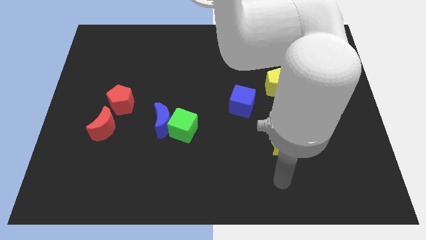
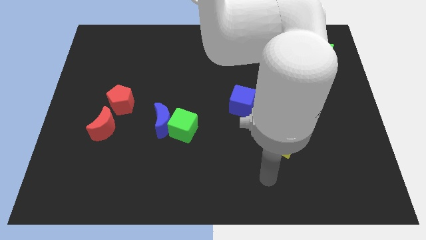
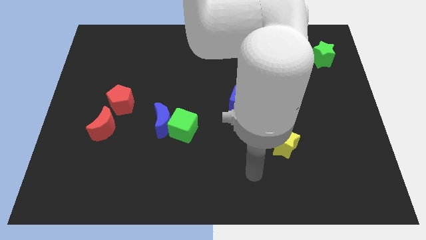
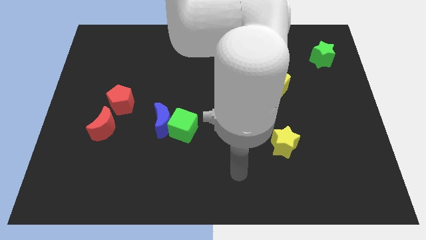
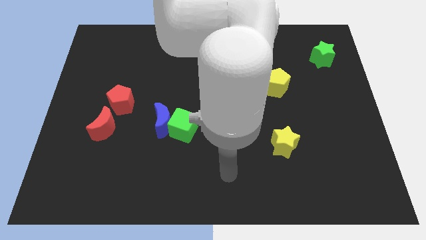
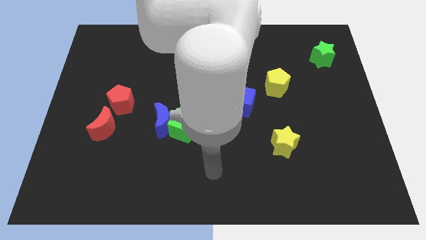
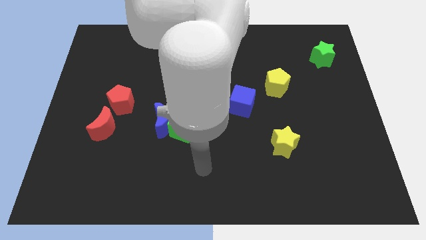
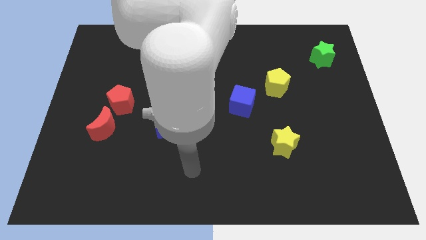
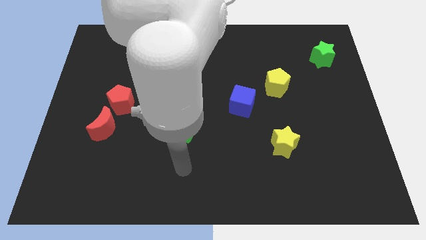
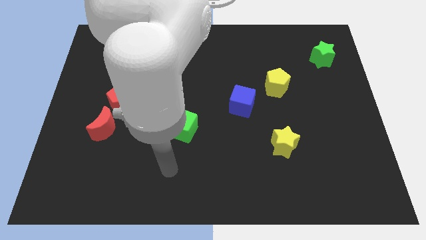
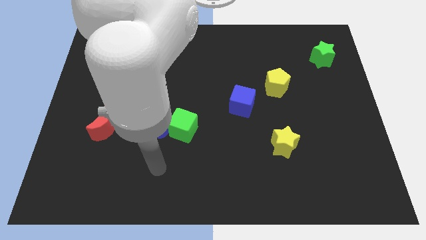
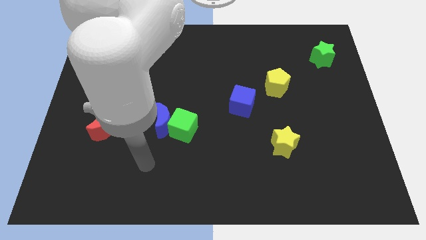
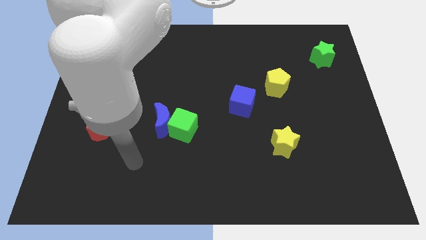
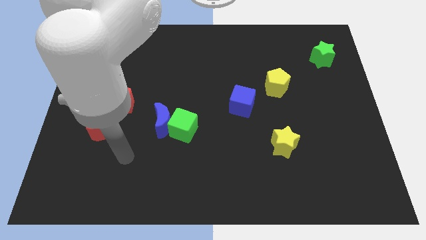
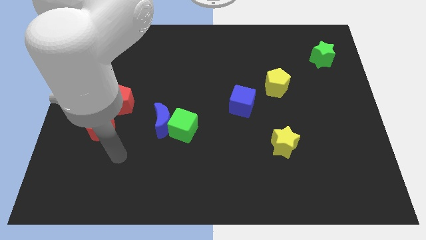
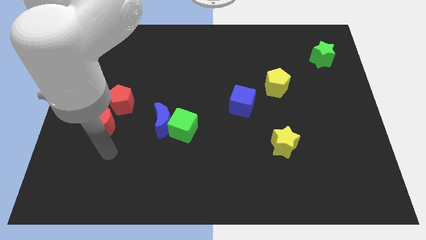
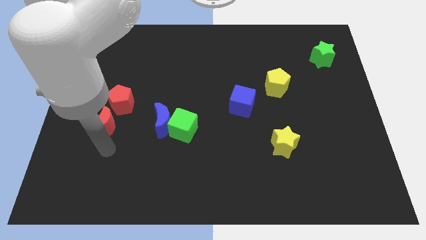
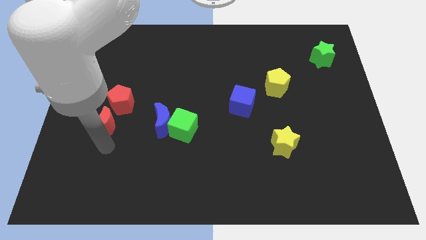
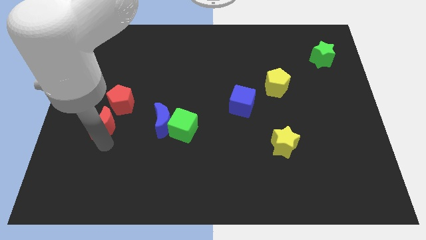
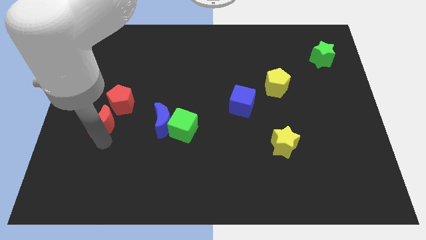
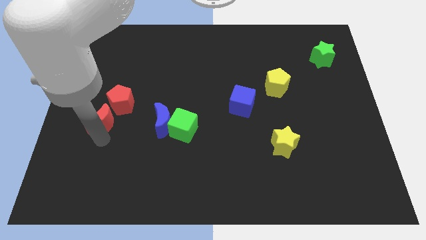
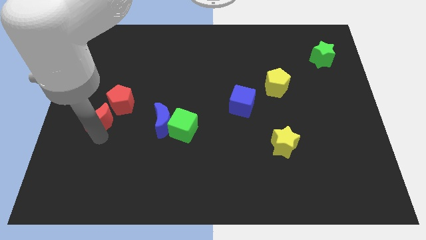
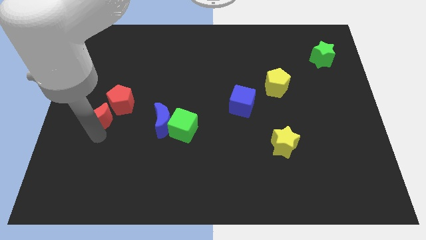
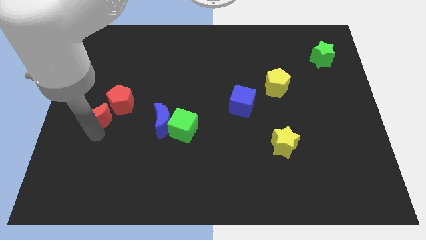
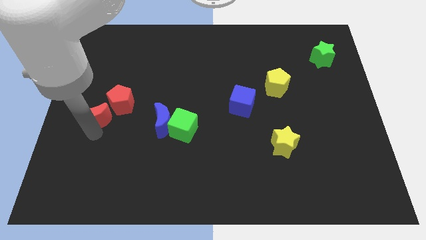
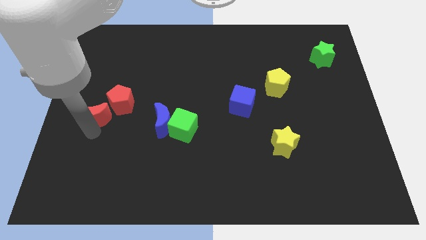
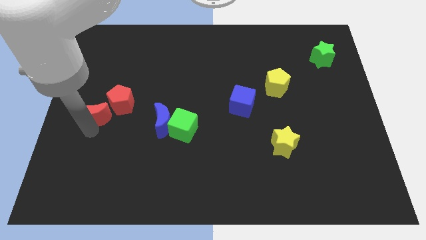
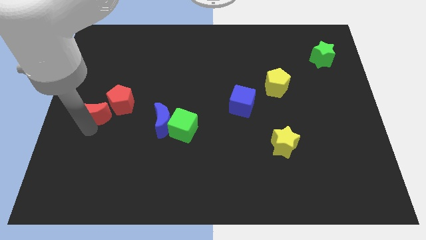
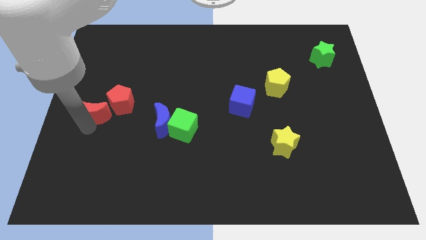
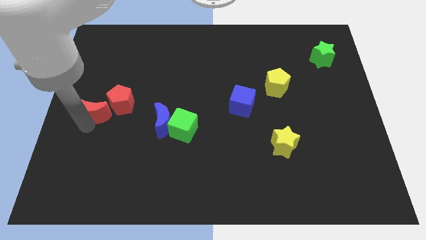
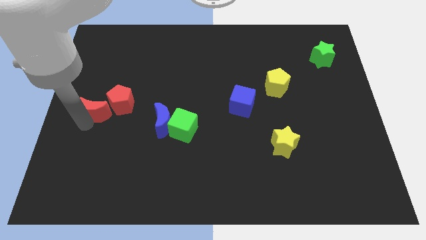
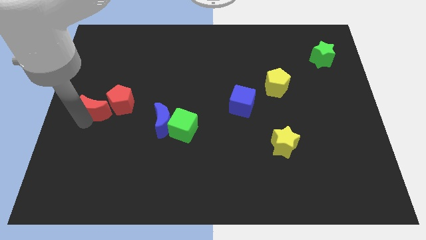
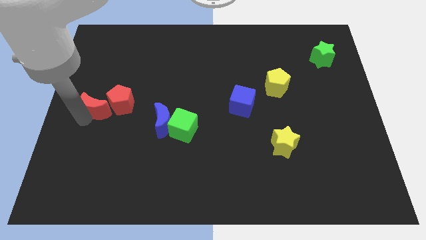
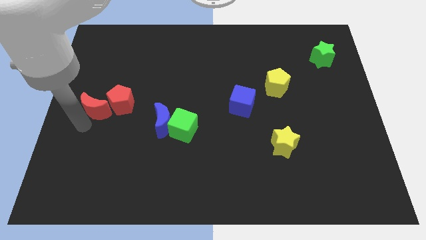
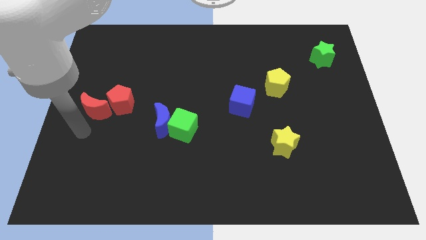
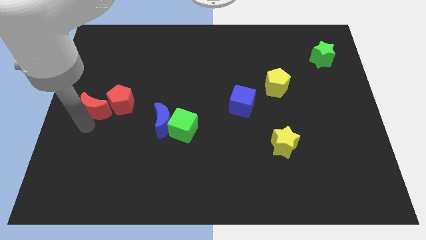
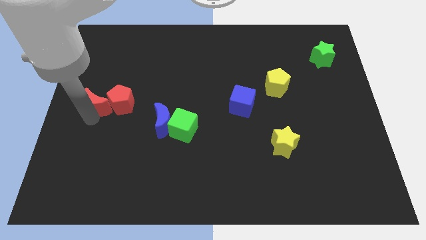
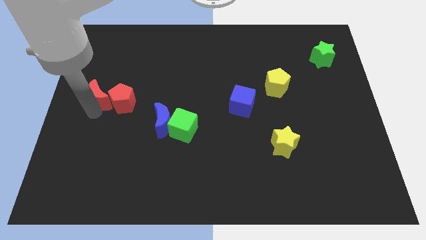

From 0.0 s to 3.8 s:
slightly push the red moon upwards

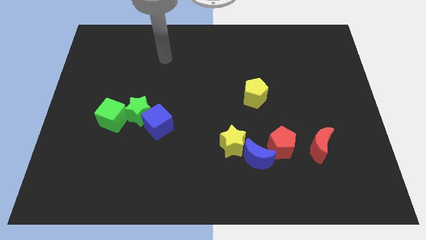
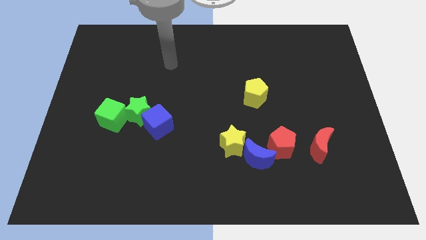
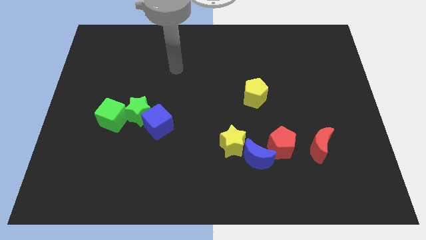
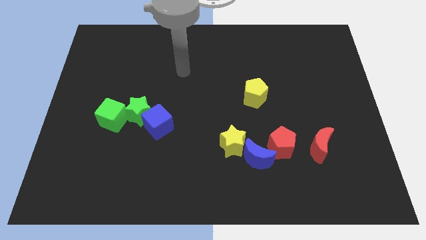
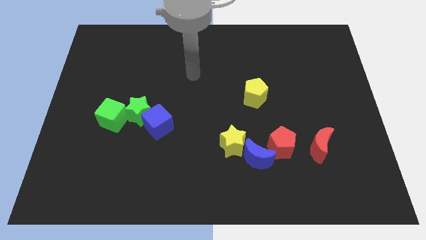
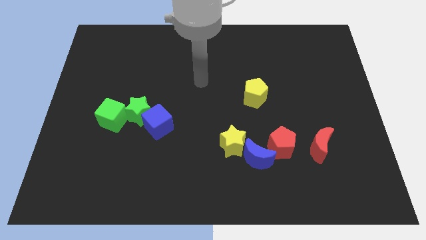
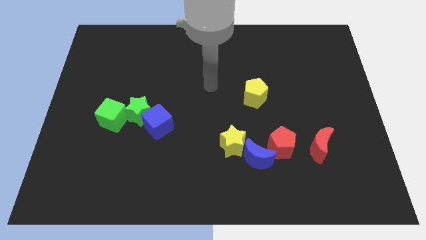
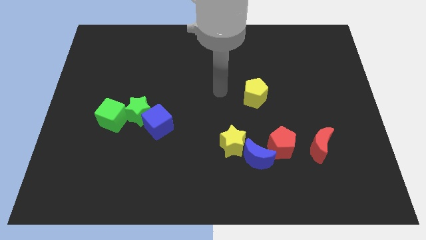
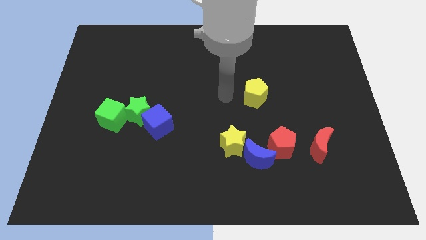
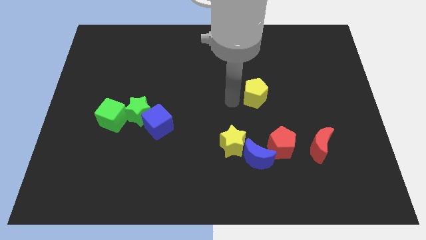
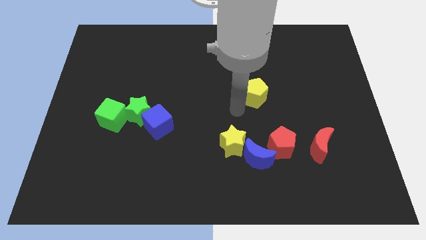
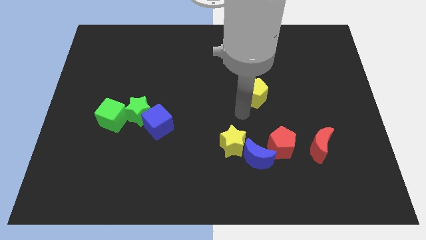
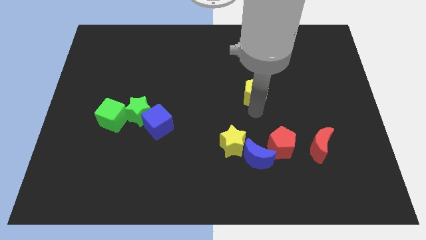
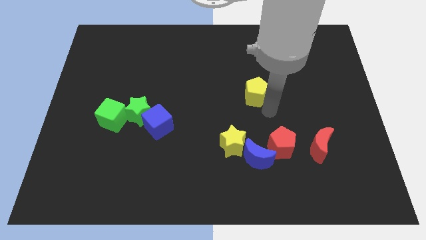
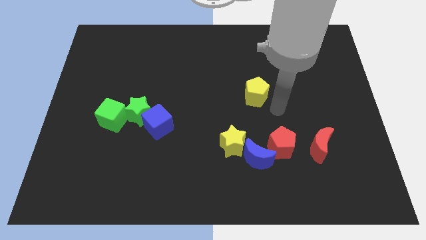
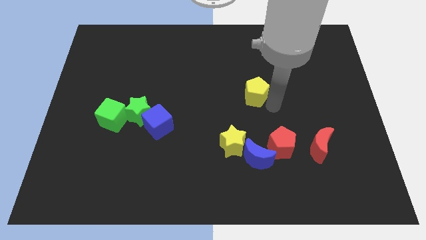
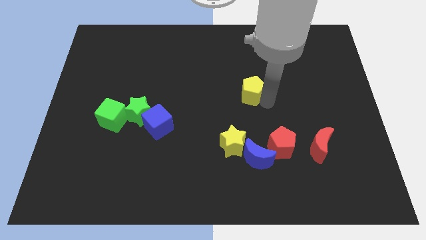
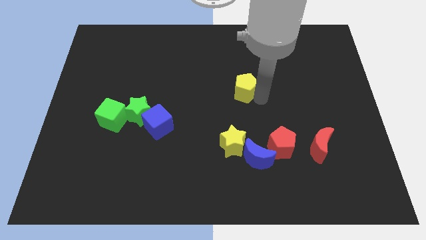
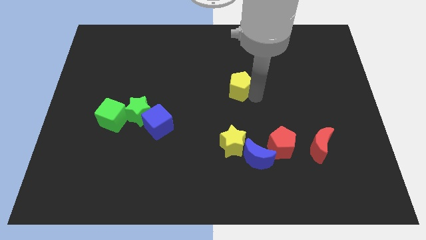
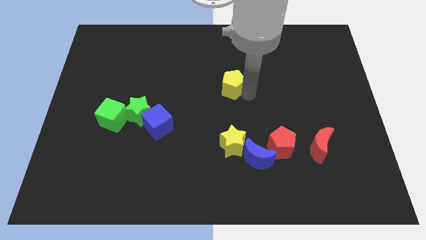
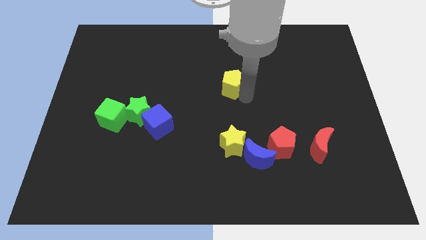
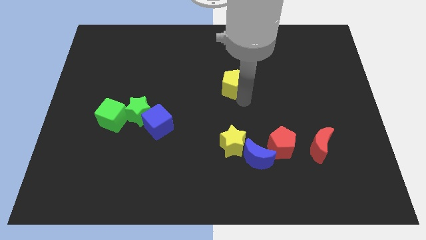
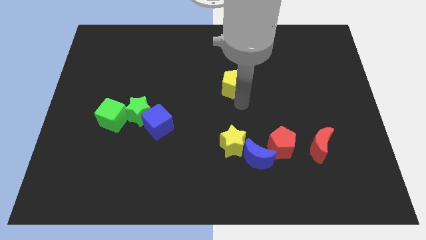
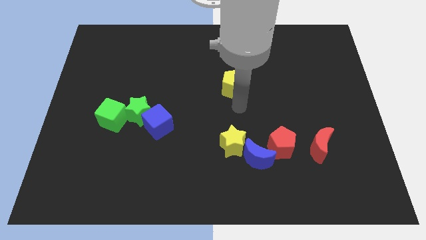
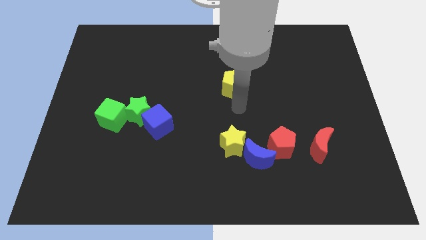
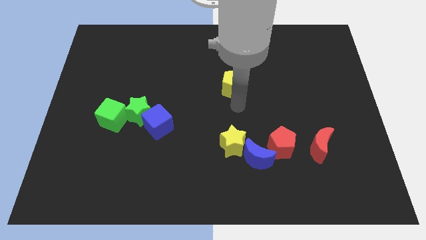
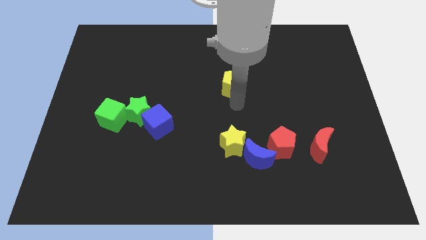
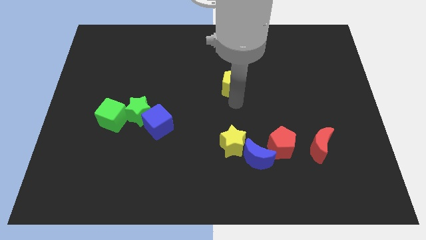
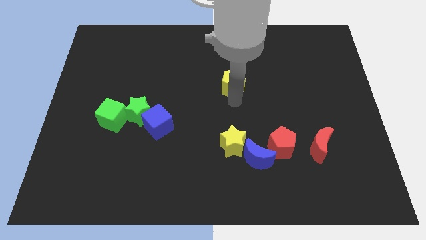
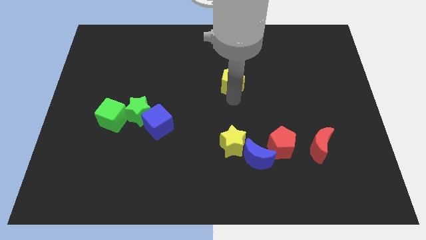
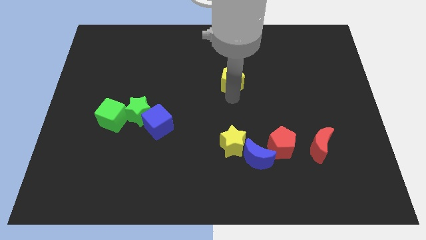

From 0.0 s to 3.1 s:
push the yellow pentagon a little bit up and to the left

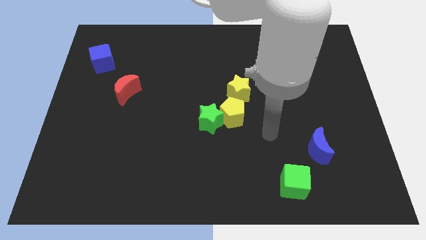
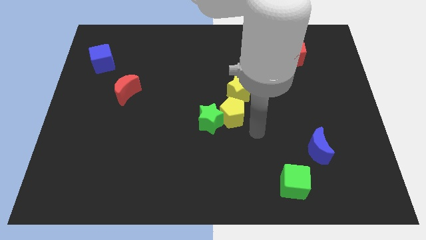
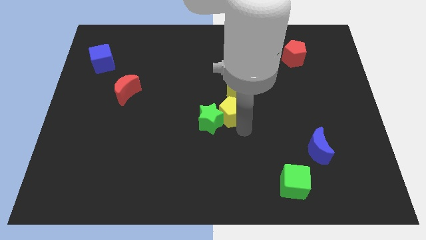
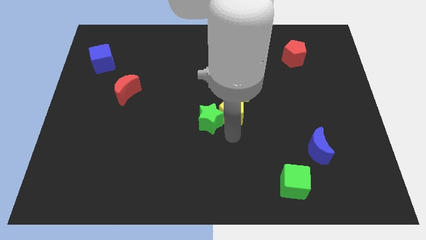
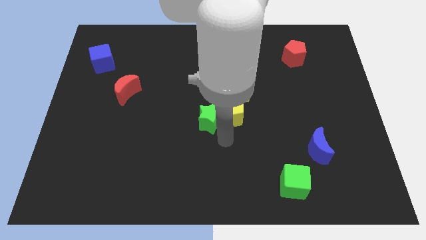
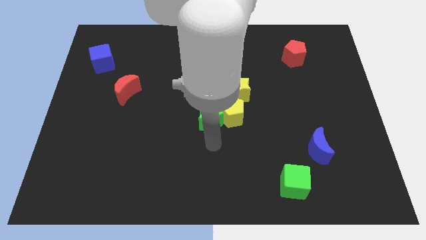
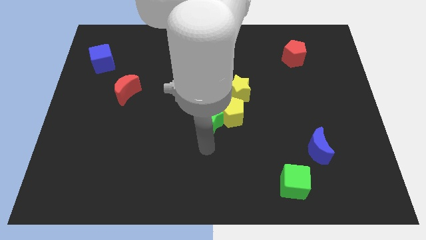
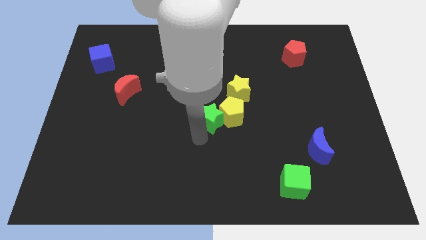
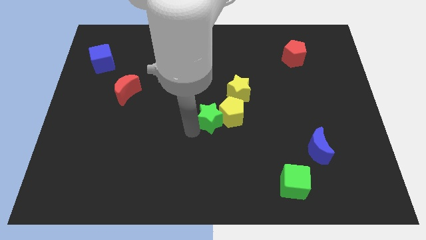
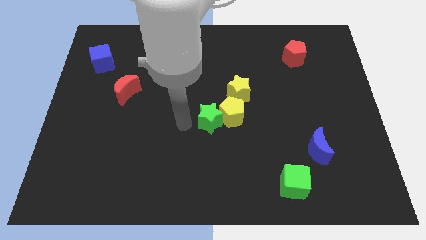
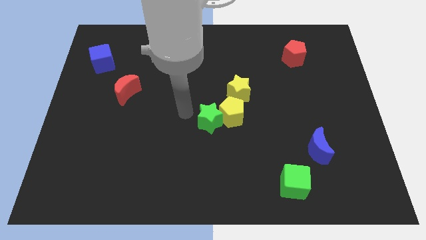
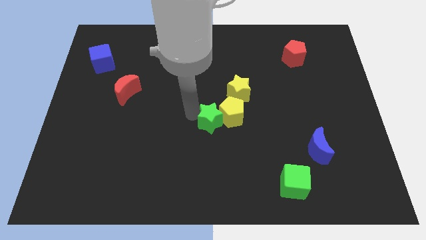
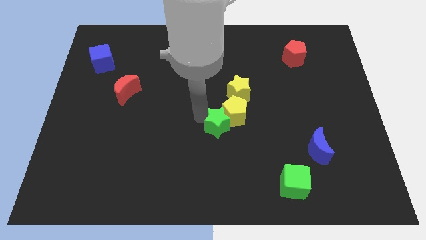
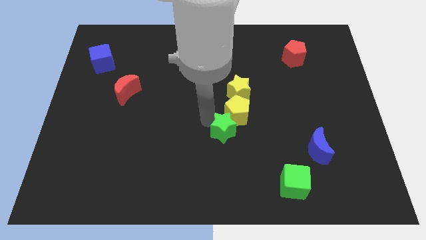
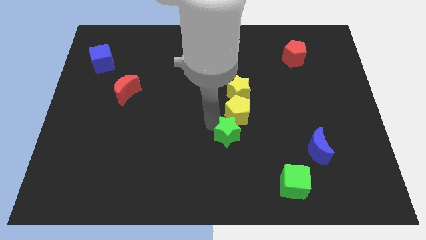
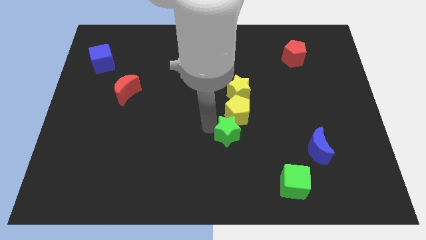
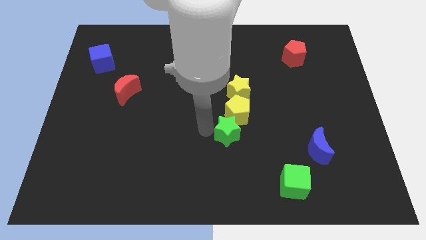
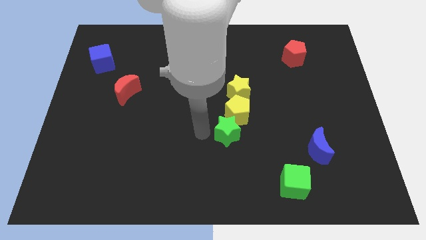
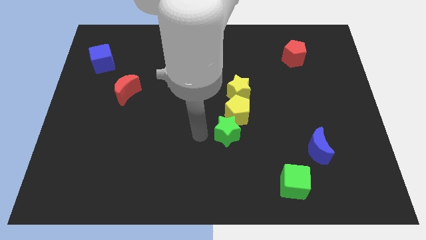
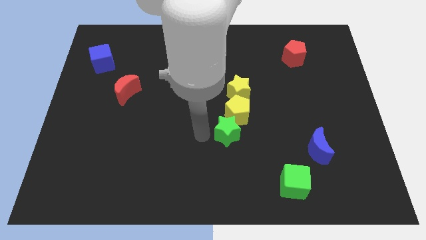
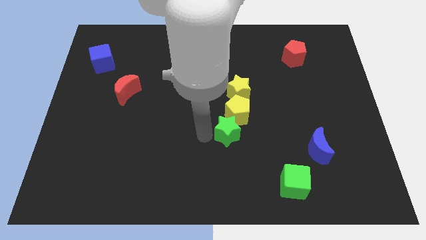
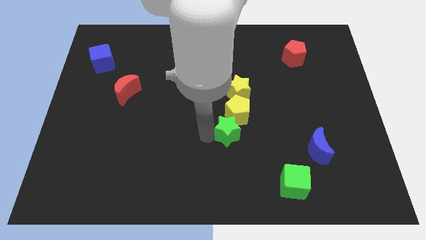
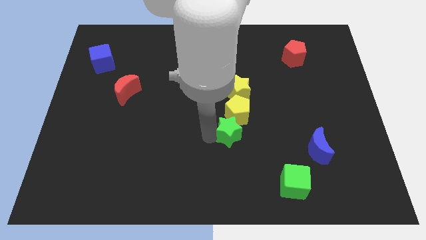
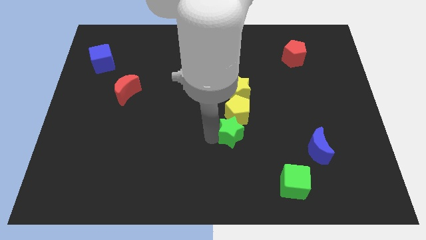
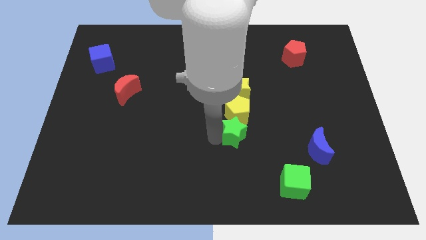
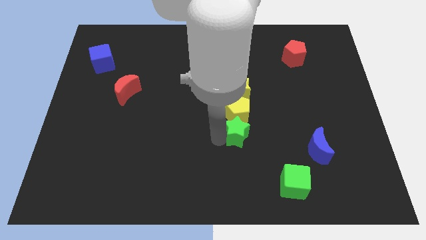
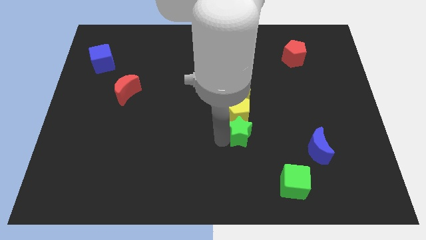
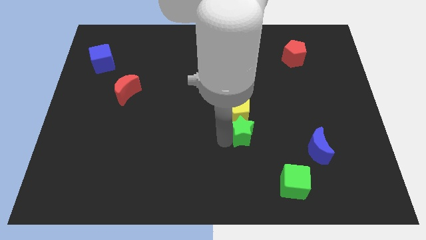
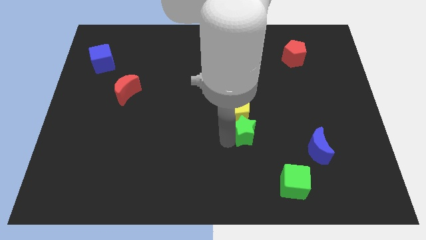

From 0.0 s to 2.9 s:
slightly slide the green star to the right
